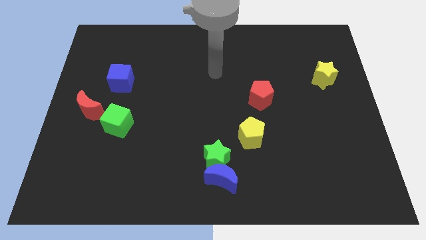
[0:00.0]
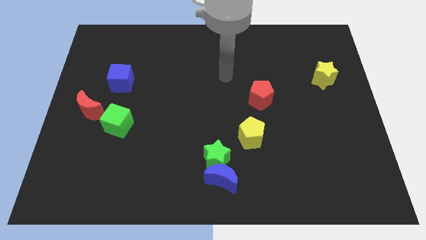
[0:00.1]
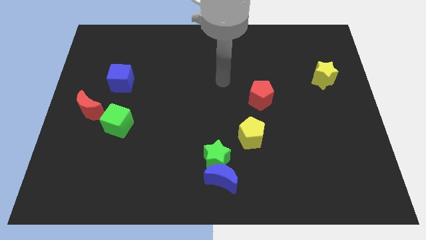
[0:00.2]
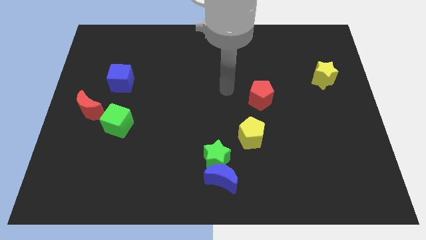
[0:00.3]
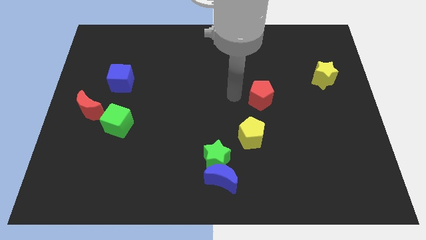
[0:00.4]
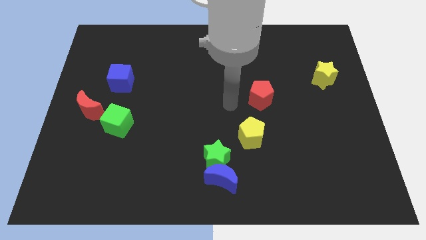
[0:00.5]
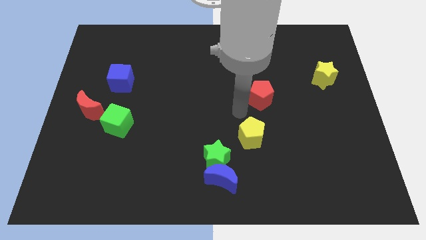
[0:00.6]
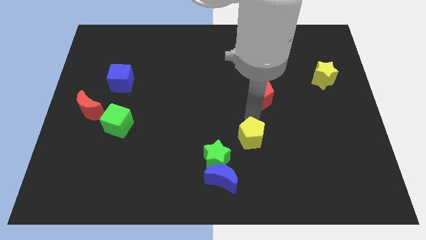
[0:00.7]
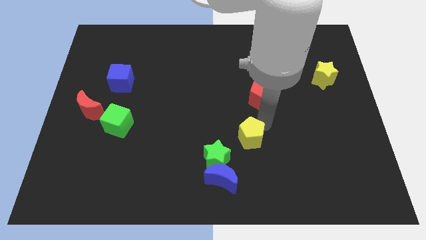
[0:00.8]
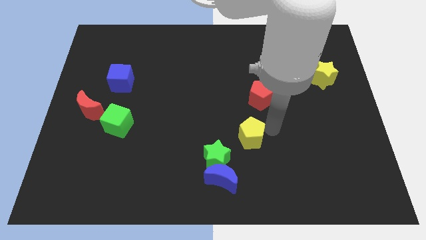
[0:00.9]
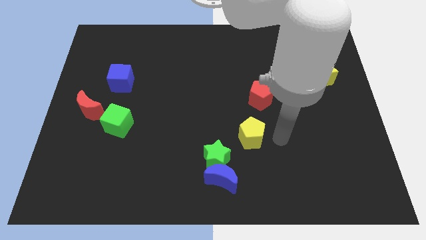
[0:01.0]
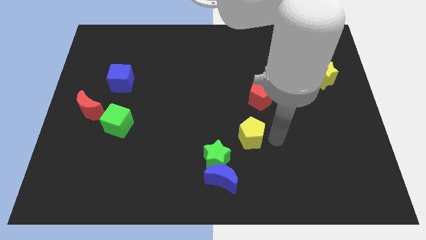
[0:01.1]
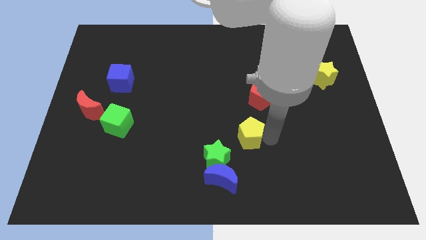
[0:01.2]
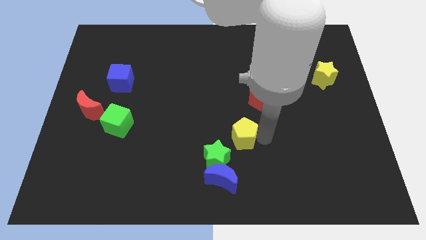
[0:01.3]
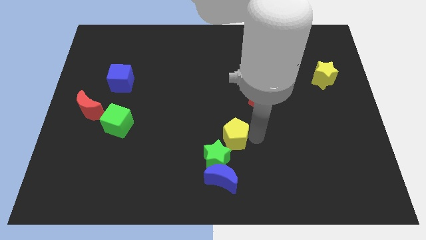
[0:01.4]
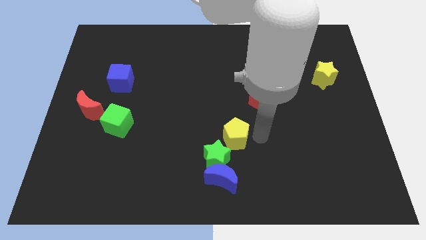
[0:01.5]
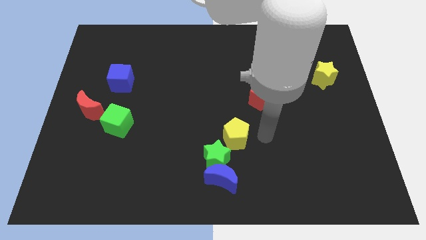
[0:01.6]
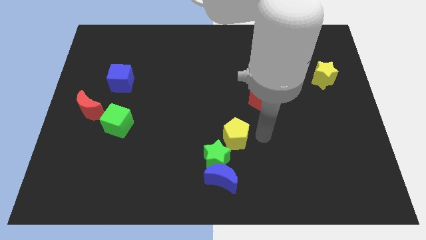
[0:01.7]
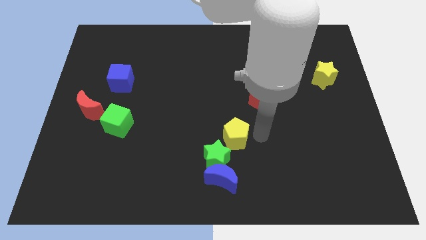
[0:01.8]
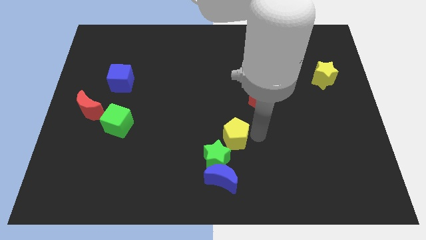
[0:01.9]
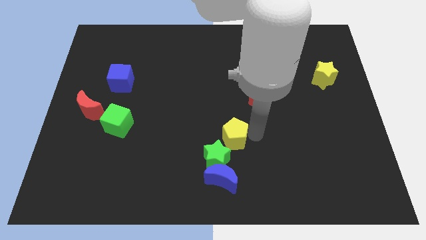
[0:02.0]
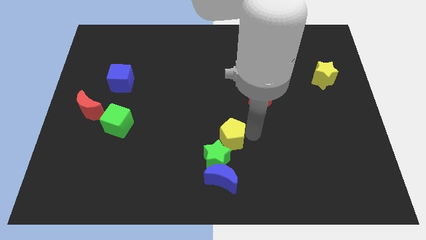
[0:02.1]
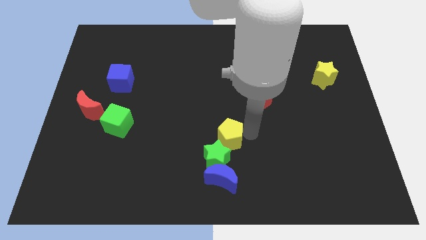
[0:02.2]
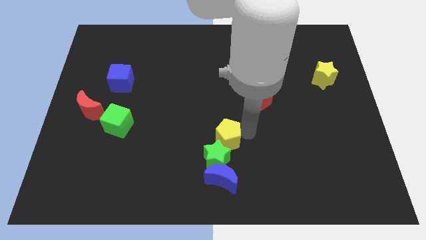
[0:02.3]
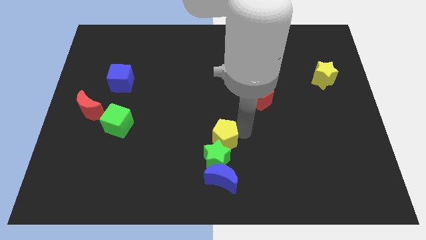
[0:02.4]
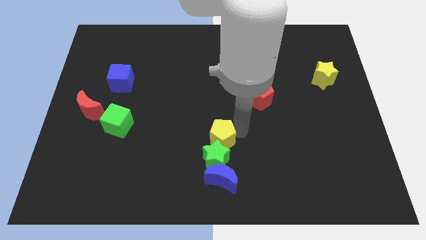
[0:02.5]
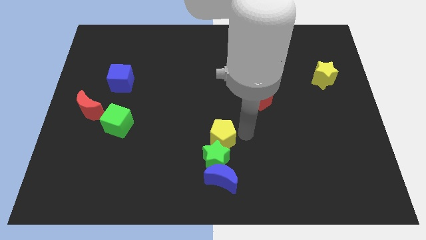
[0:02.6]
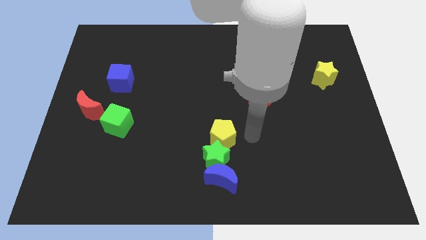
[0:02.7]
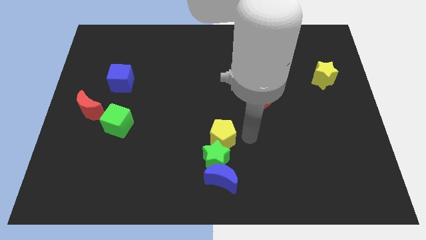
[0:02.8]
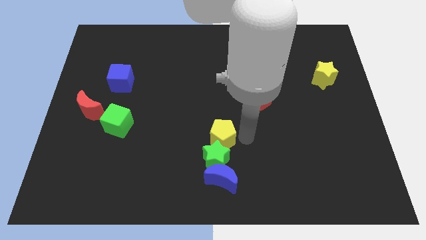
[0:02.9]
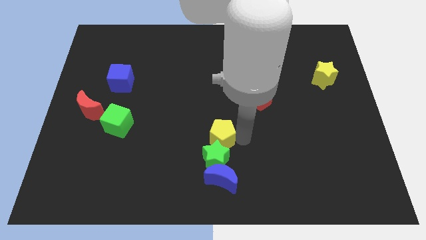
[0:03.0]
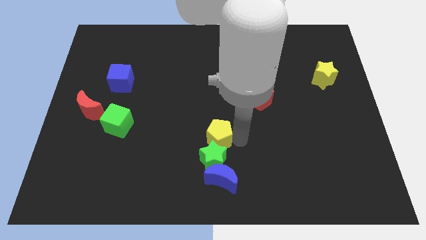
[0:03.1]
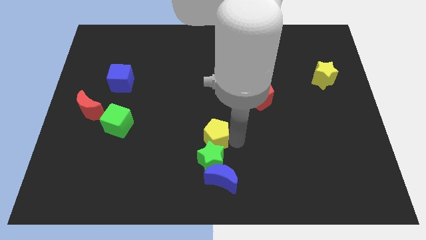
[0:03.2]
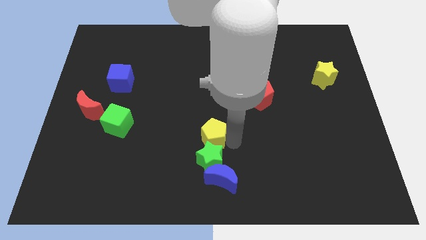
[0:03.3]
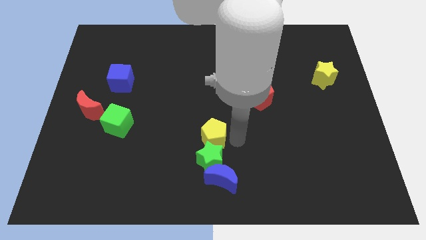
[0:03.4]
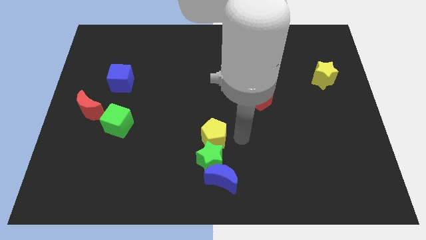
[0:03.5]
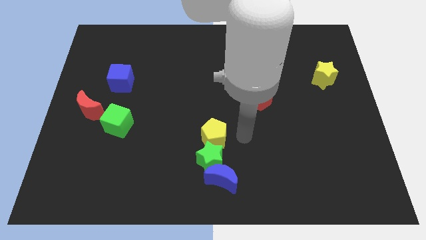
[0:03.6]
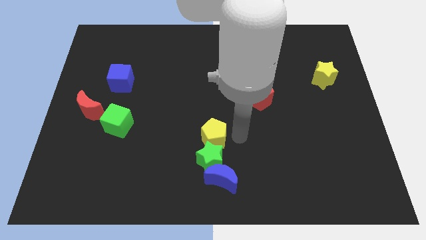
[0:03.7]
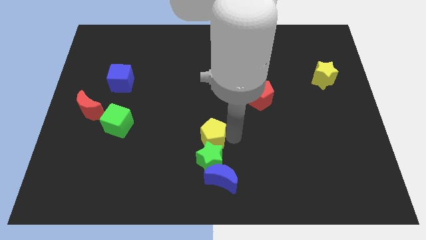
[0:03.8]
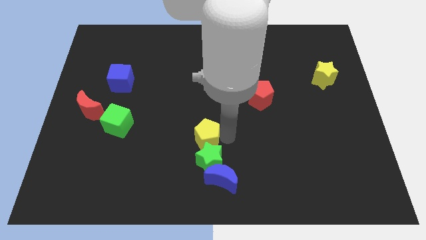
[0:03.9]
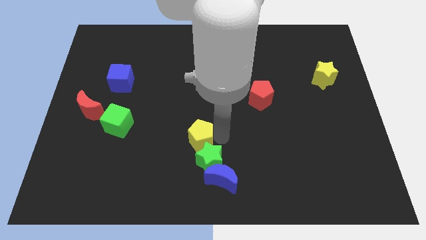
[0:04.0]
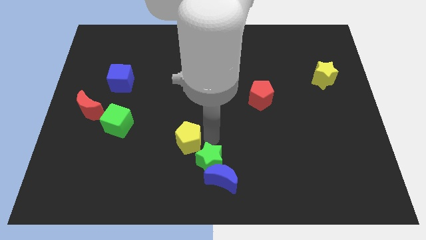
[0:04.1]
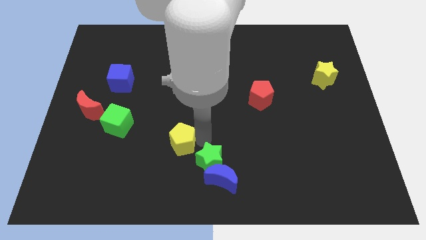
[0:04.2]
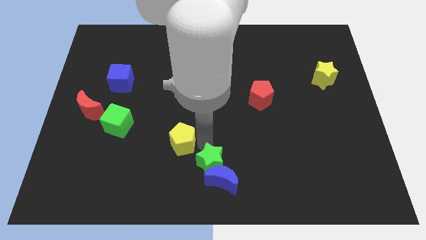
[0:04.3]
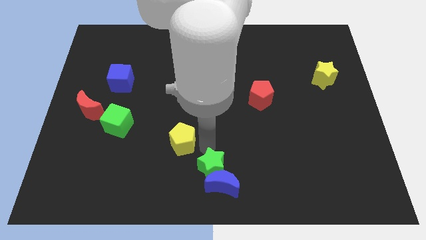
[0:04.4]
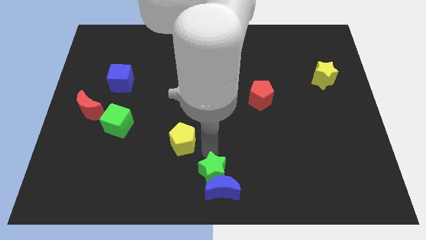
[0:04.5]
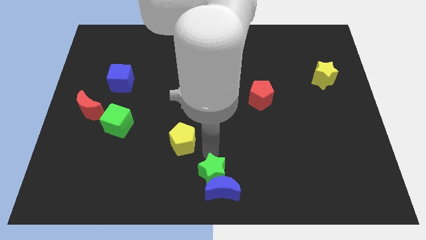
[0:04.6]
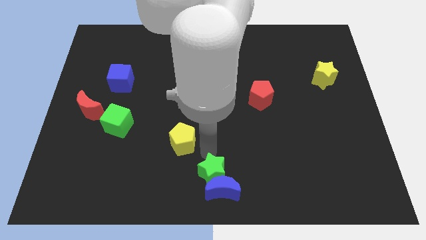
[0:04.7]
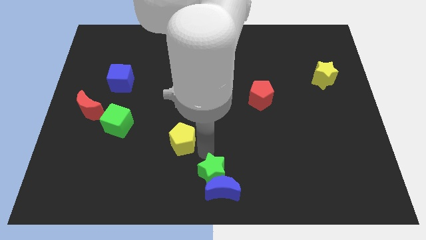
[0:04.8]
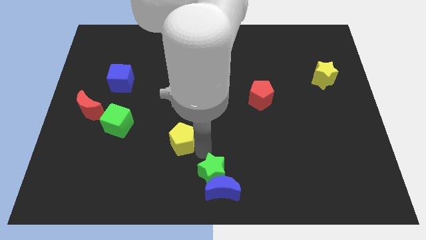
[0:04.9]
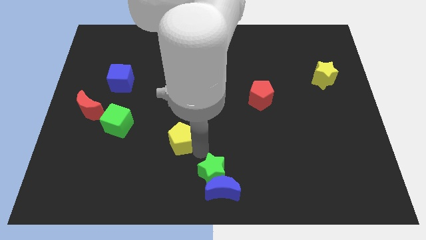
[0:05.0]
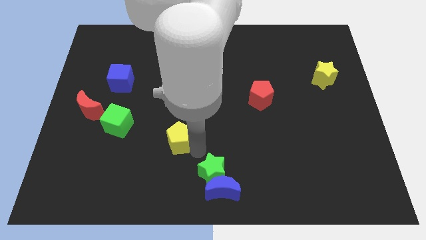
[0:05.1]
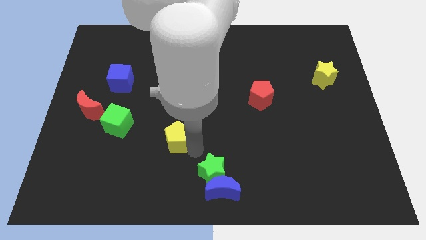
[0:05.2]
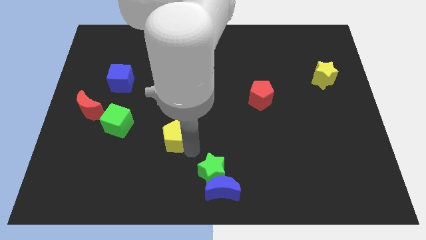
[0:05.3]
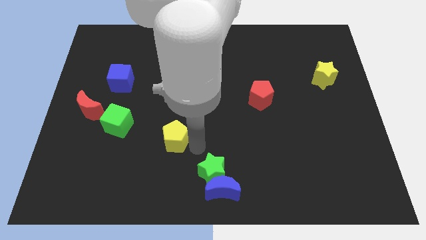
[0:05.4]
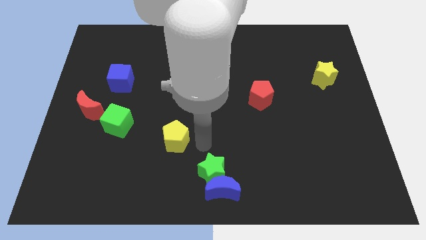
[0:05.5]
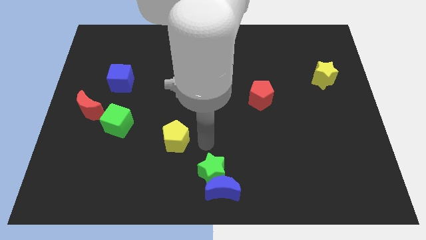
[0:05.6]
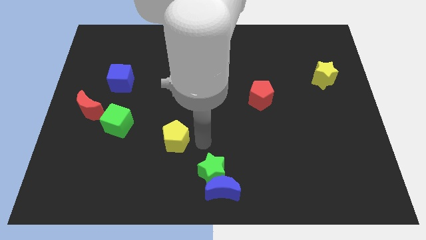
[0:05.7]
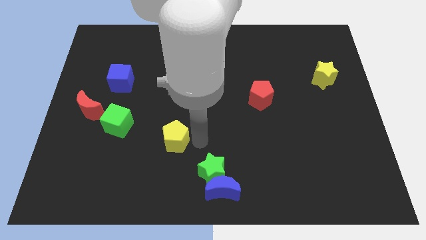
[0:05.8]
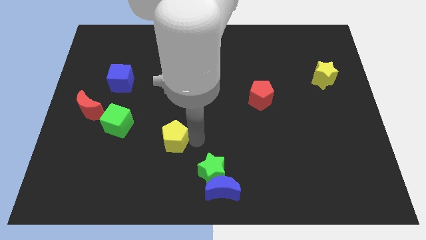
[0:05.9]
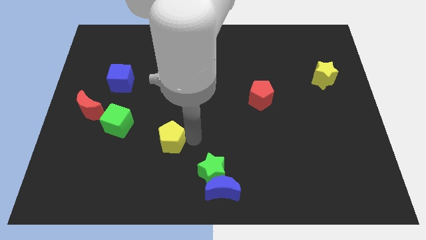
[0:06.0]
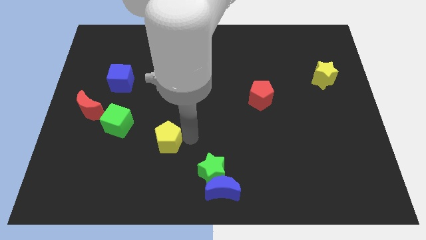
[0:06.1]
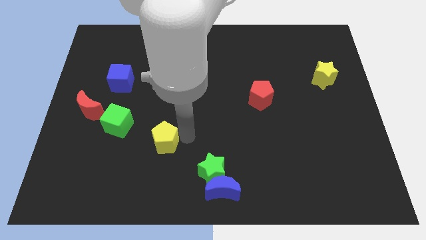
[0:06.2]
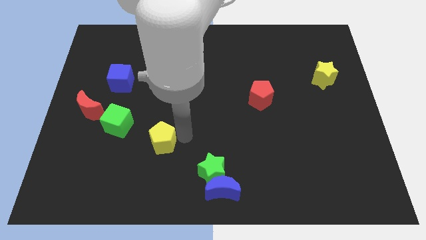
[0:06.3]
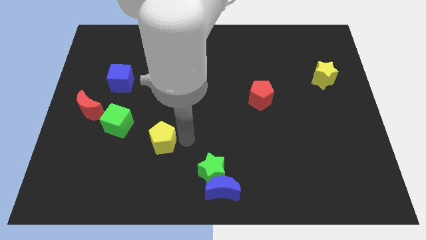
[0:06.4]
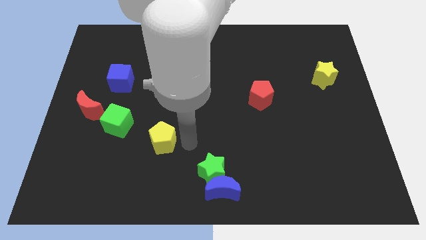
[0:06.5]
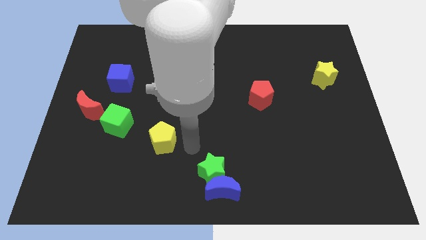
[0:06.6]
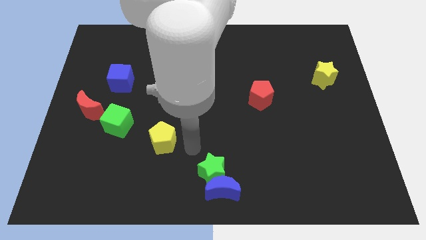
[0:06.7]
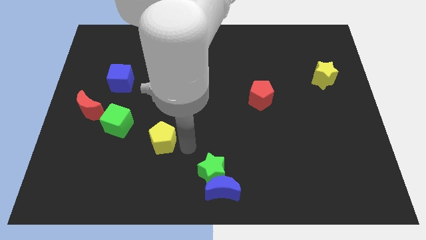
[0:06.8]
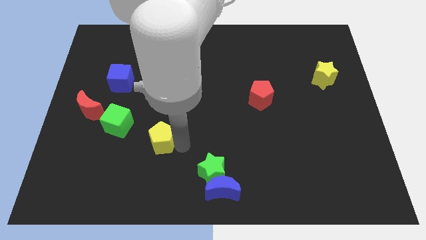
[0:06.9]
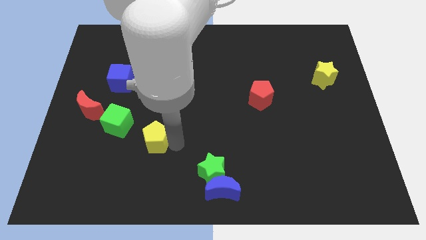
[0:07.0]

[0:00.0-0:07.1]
move the yellow pentagon to the left

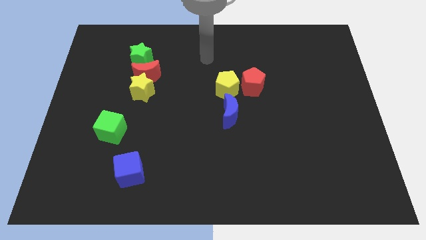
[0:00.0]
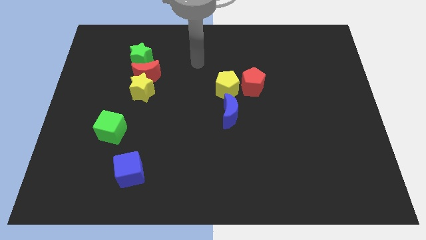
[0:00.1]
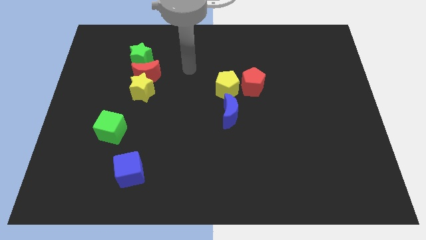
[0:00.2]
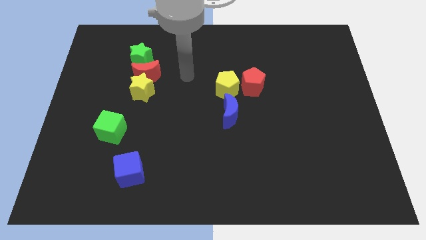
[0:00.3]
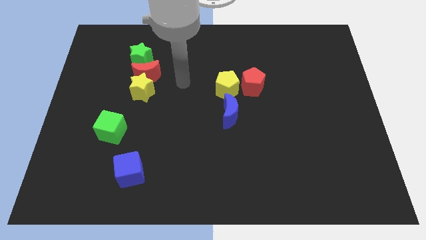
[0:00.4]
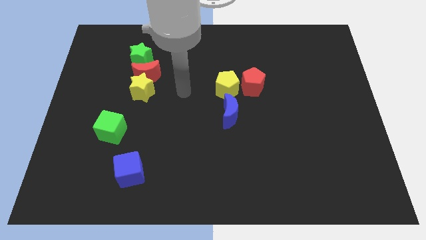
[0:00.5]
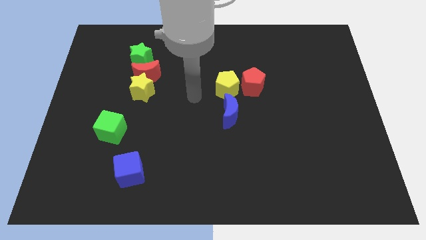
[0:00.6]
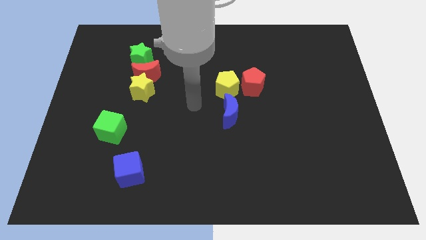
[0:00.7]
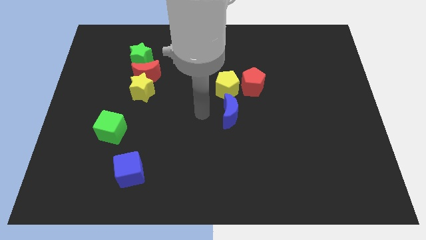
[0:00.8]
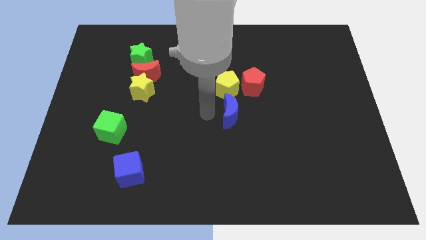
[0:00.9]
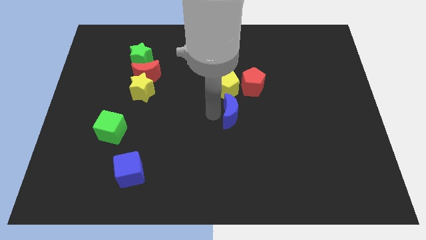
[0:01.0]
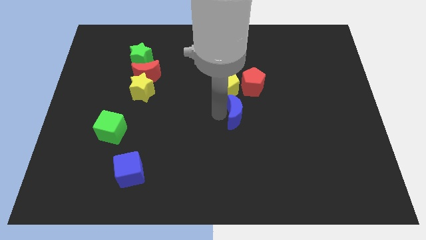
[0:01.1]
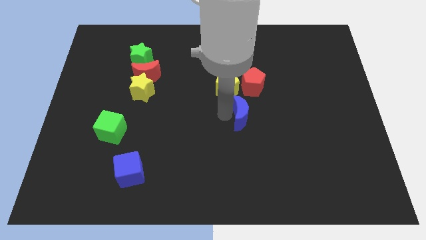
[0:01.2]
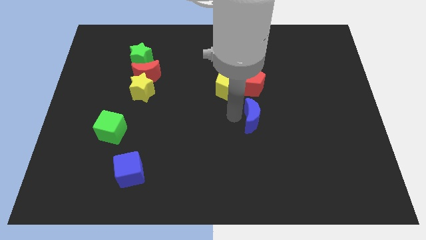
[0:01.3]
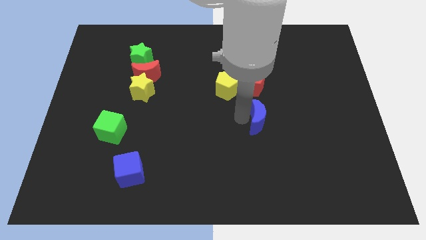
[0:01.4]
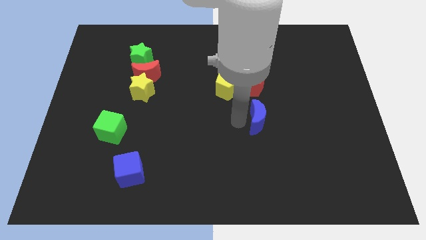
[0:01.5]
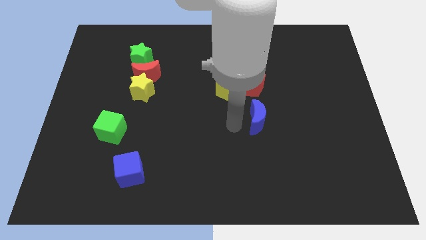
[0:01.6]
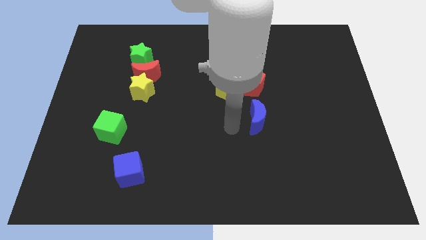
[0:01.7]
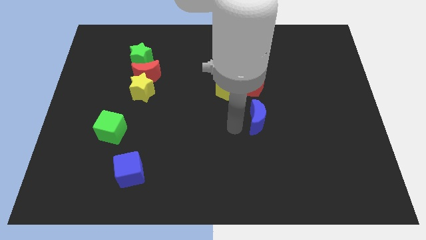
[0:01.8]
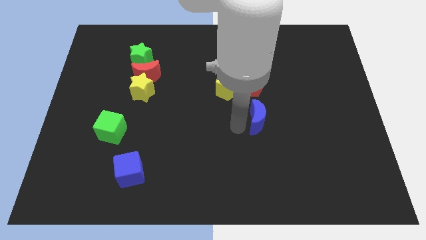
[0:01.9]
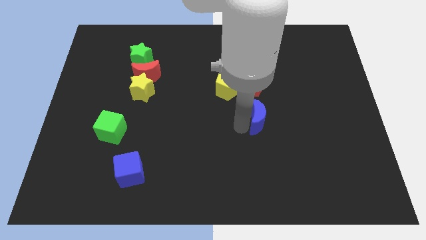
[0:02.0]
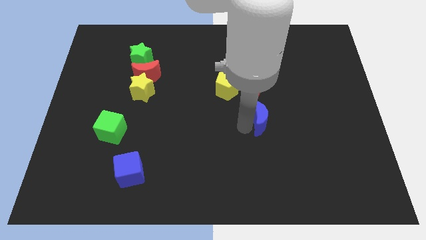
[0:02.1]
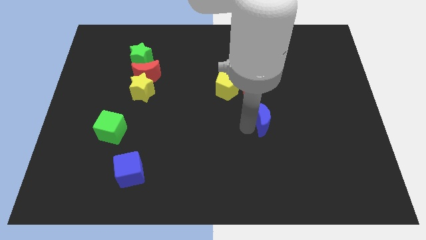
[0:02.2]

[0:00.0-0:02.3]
push the blue moon right a little bit
